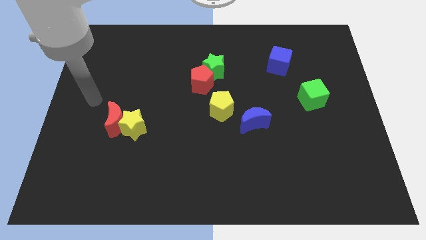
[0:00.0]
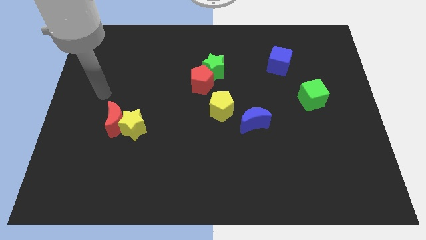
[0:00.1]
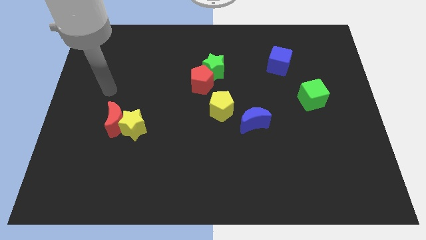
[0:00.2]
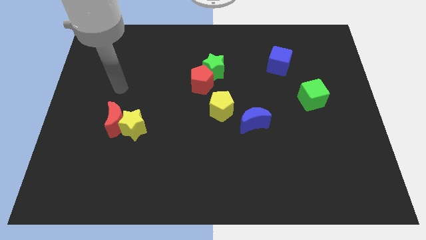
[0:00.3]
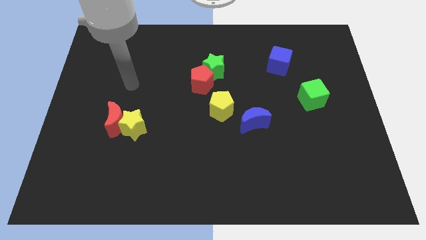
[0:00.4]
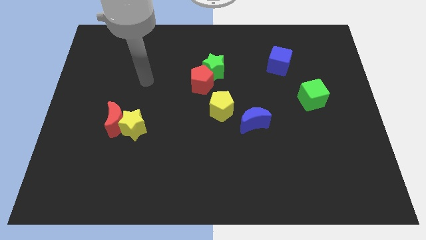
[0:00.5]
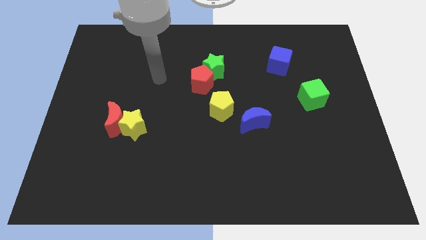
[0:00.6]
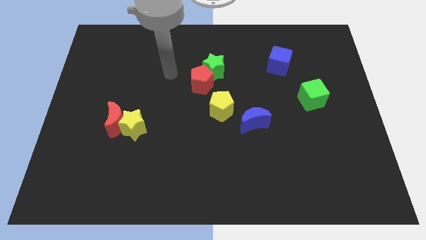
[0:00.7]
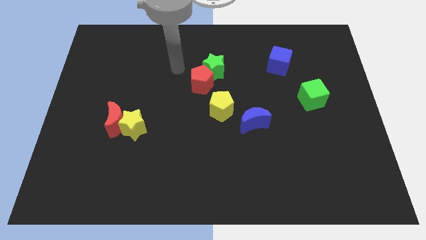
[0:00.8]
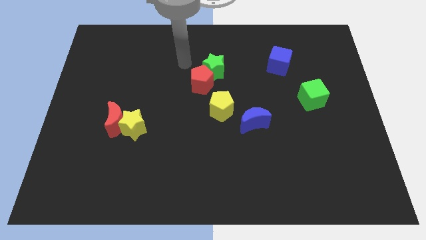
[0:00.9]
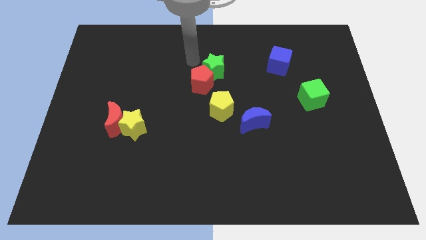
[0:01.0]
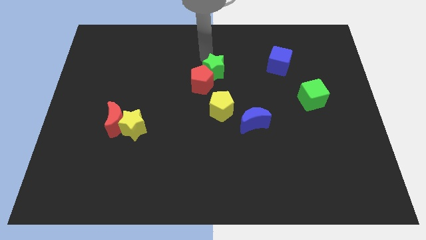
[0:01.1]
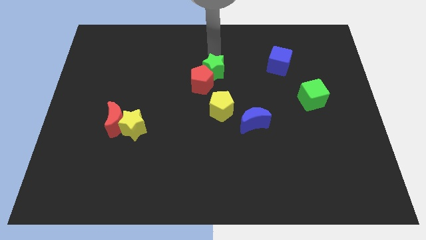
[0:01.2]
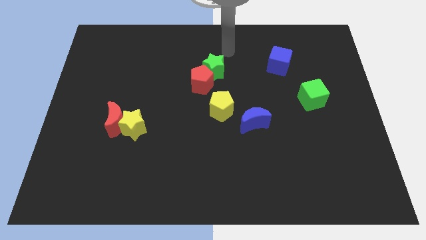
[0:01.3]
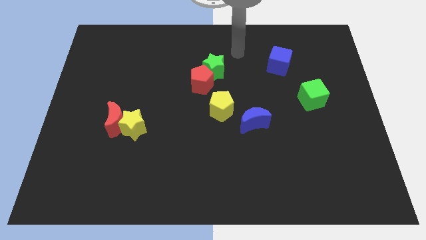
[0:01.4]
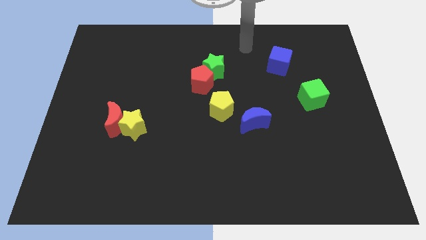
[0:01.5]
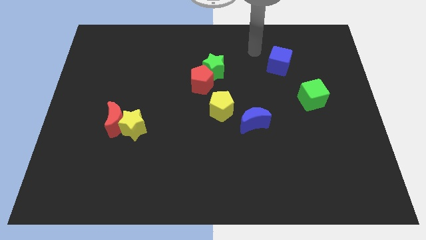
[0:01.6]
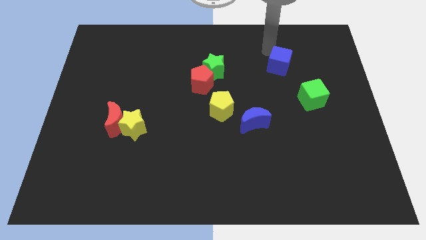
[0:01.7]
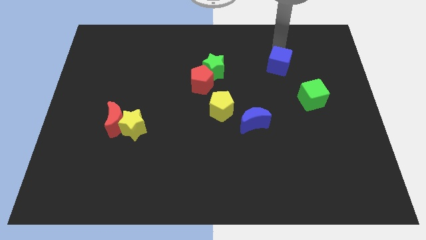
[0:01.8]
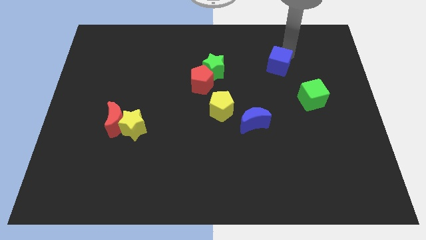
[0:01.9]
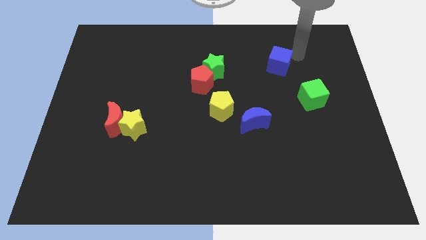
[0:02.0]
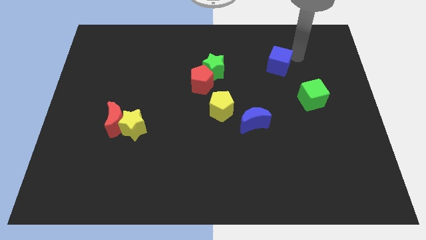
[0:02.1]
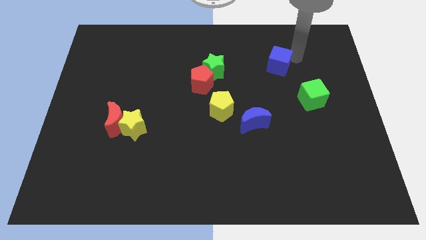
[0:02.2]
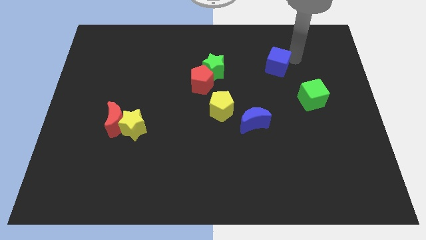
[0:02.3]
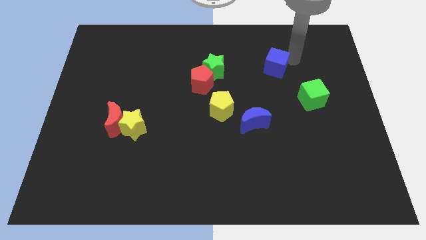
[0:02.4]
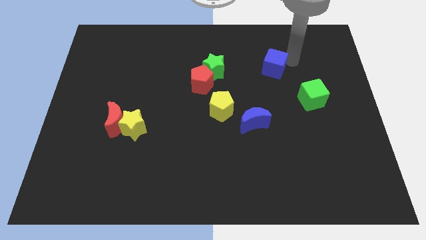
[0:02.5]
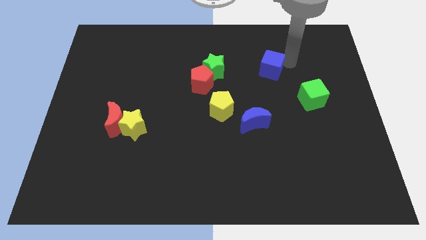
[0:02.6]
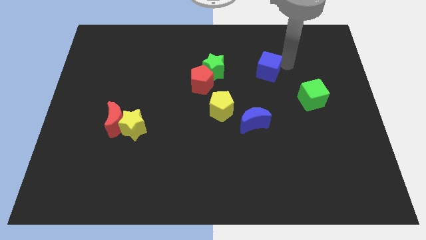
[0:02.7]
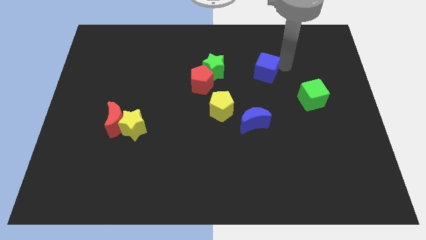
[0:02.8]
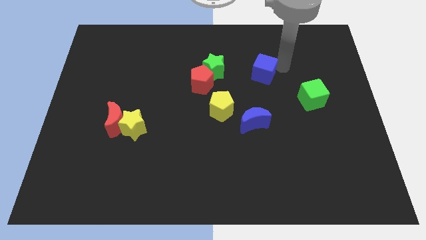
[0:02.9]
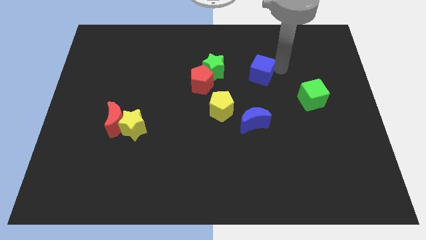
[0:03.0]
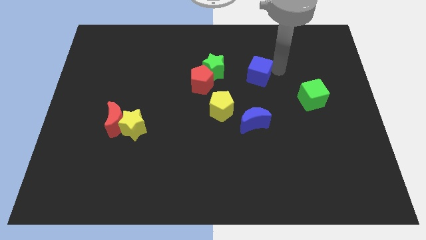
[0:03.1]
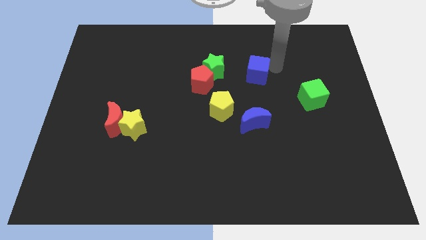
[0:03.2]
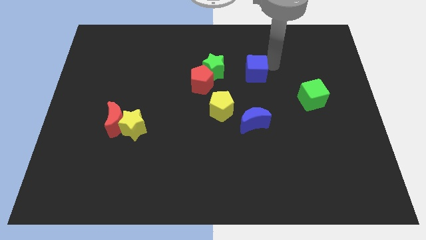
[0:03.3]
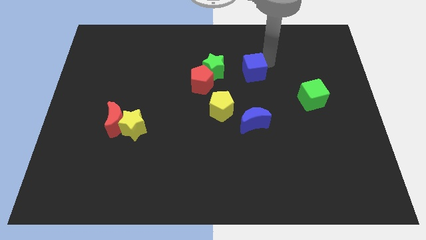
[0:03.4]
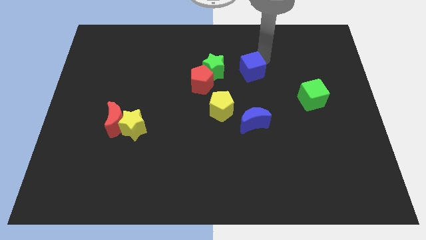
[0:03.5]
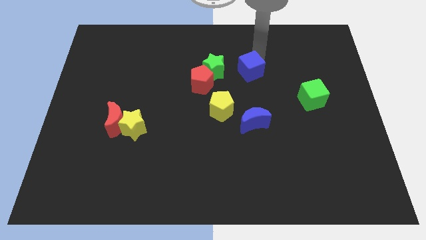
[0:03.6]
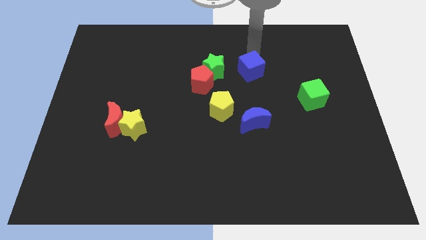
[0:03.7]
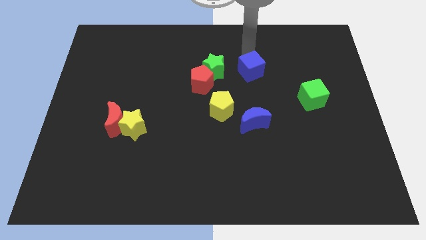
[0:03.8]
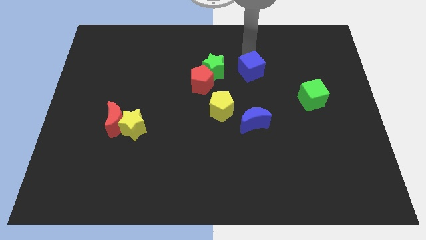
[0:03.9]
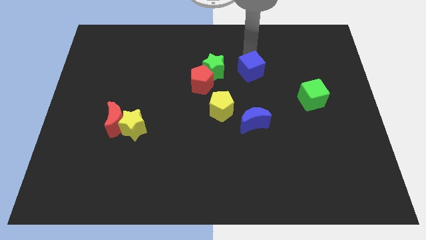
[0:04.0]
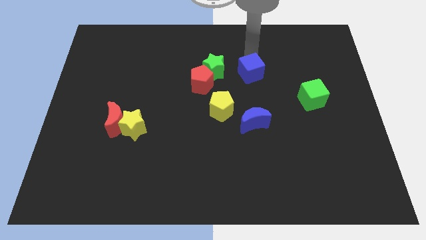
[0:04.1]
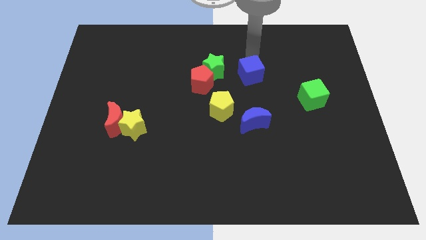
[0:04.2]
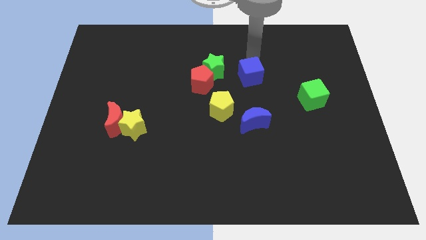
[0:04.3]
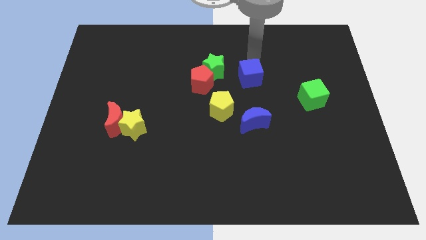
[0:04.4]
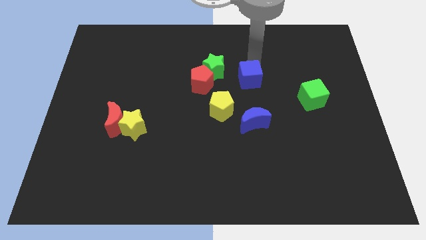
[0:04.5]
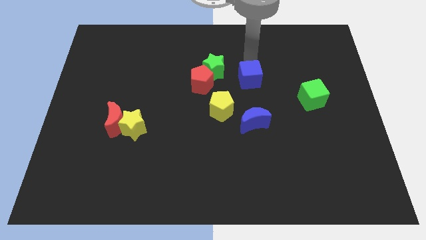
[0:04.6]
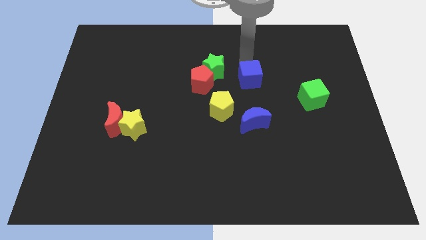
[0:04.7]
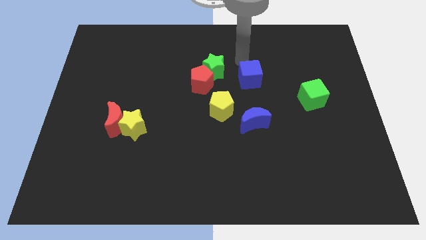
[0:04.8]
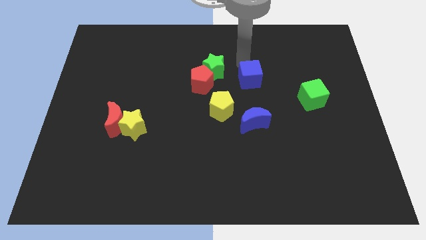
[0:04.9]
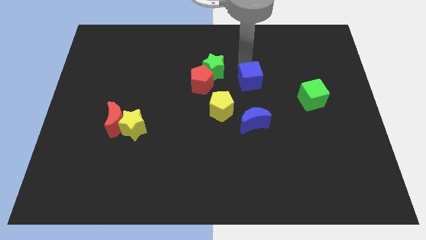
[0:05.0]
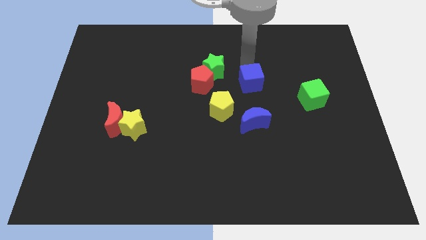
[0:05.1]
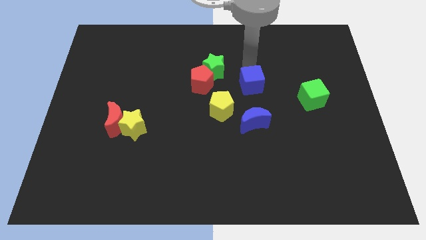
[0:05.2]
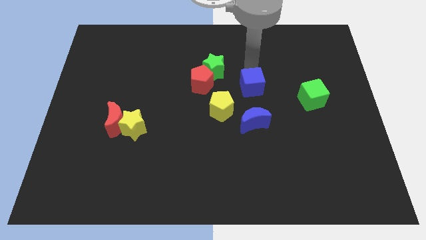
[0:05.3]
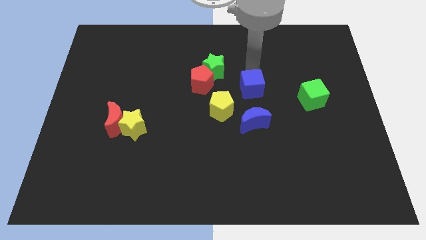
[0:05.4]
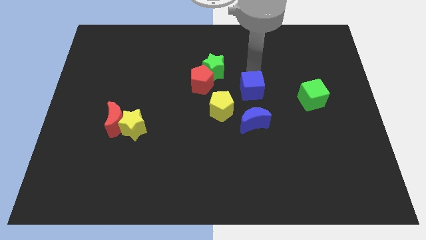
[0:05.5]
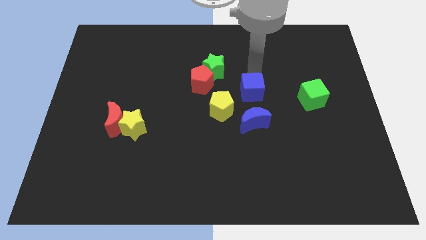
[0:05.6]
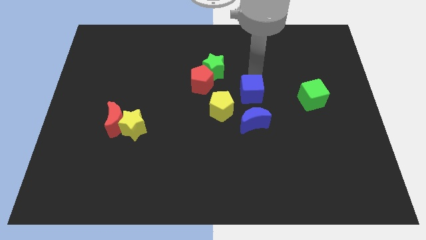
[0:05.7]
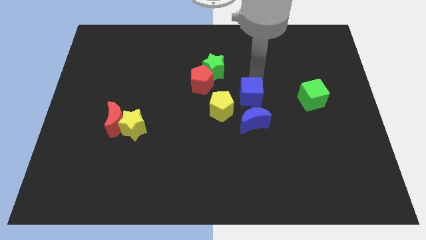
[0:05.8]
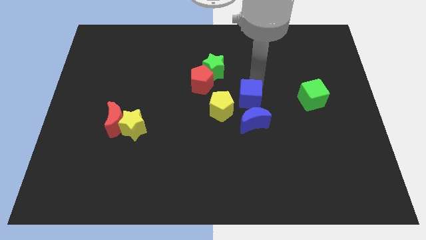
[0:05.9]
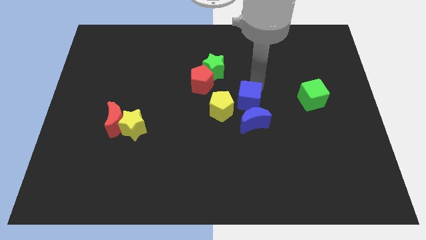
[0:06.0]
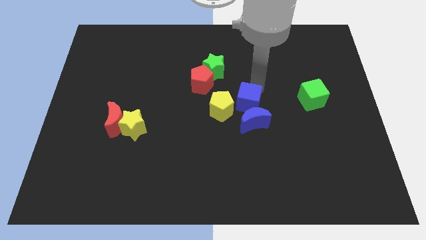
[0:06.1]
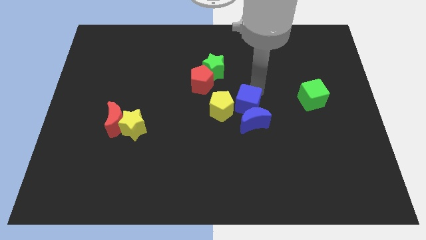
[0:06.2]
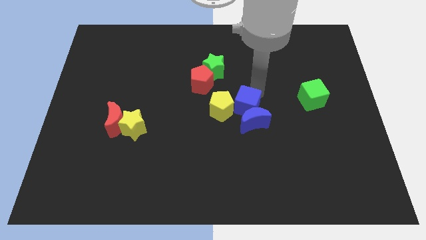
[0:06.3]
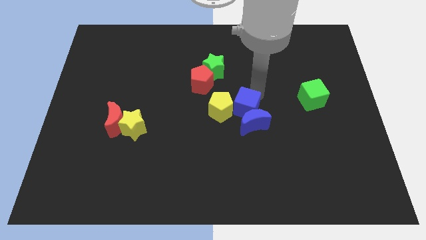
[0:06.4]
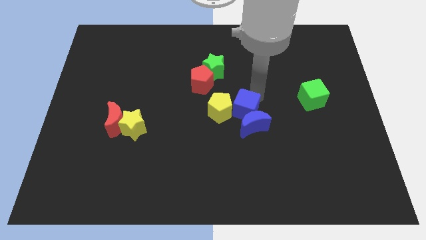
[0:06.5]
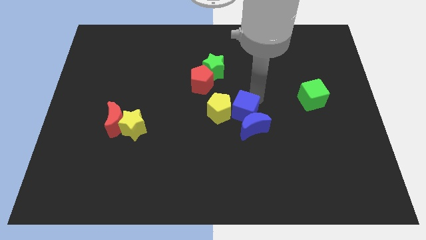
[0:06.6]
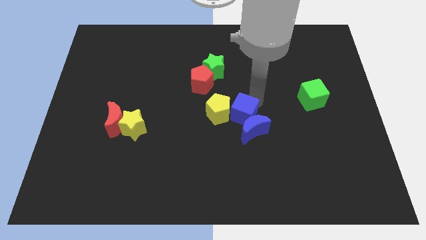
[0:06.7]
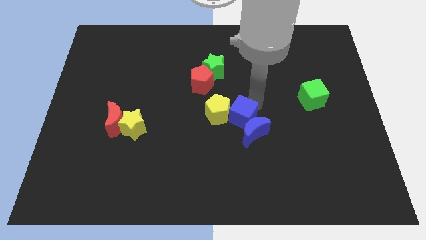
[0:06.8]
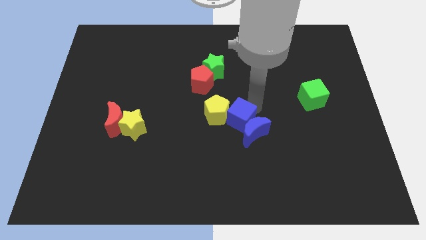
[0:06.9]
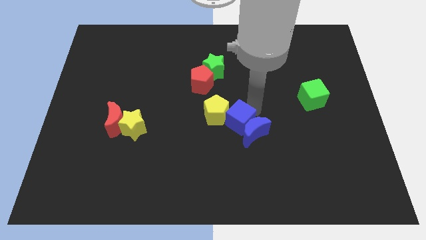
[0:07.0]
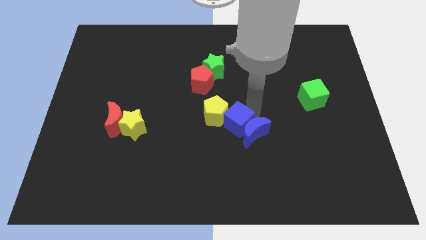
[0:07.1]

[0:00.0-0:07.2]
slide the blue cube down and left diagonally
